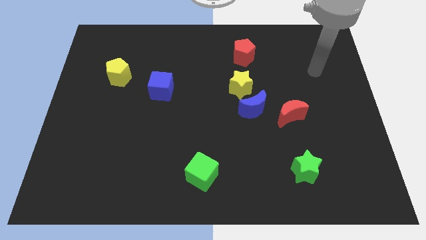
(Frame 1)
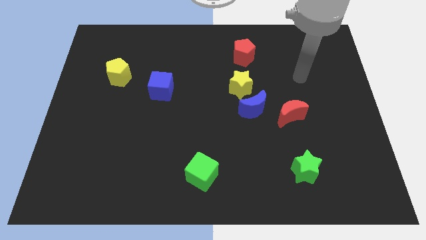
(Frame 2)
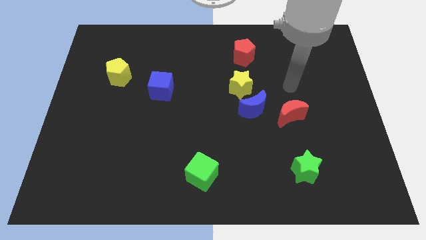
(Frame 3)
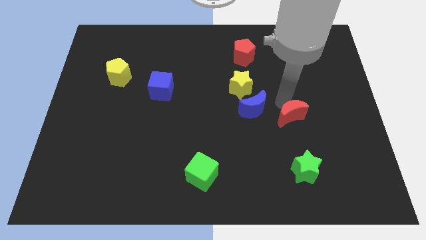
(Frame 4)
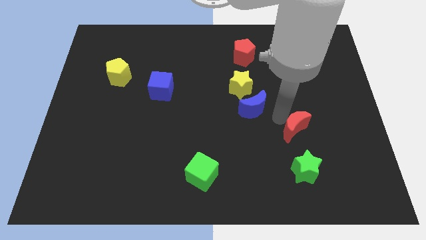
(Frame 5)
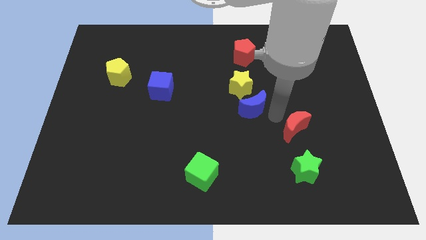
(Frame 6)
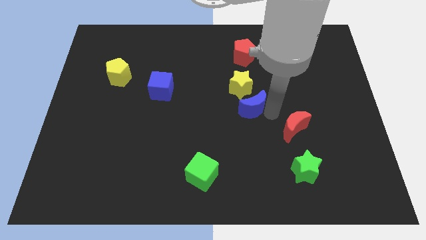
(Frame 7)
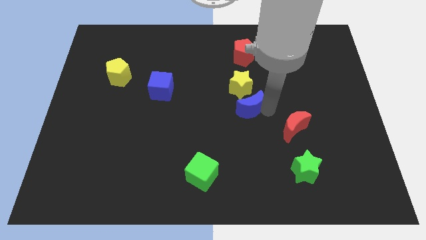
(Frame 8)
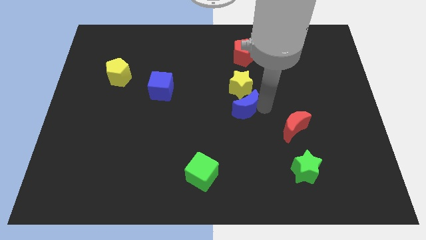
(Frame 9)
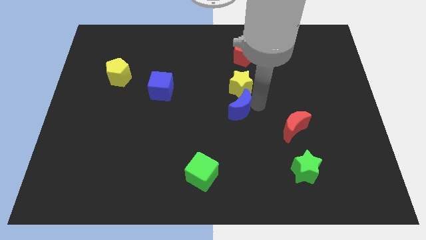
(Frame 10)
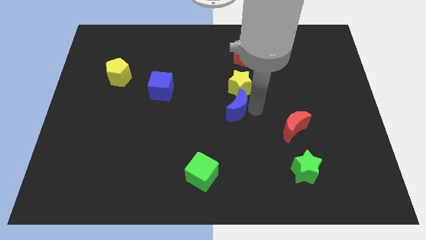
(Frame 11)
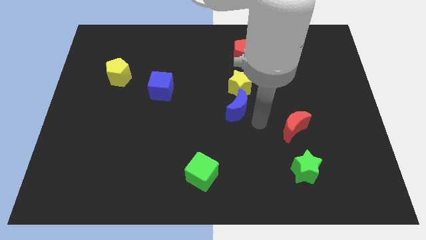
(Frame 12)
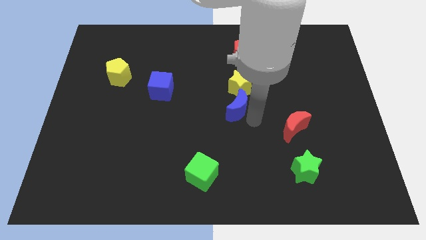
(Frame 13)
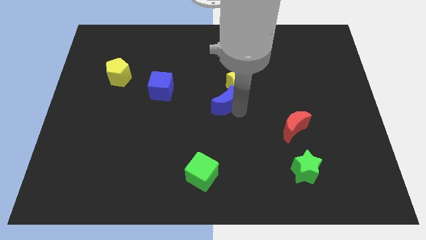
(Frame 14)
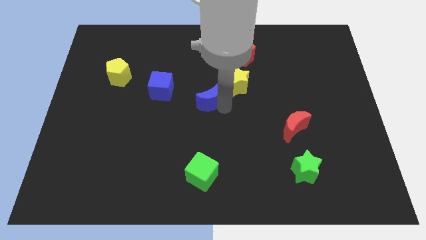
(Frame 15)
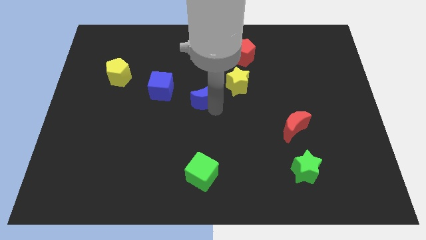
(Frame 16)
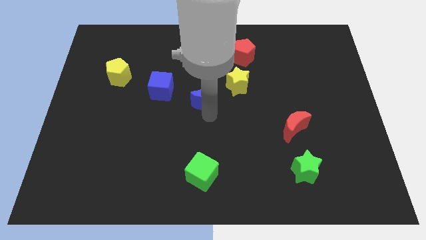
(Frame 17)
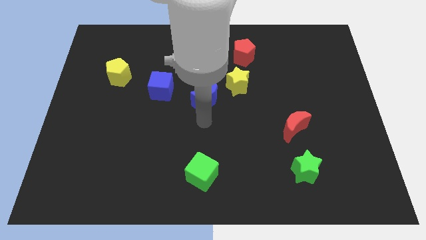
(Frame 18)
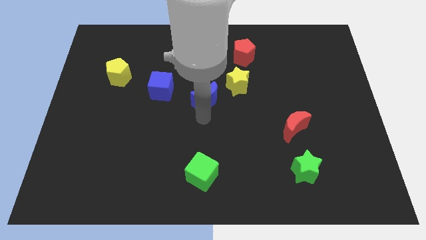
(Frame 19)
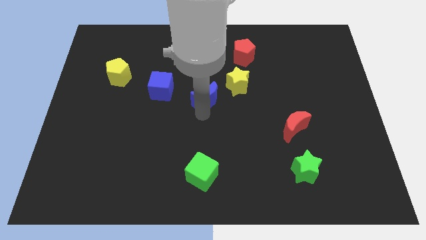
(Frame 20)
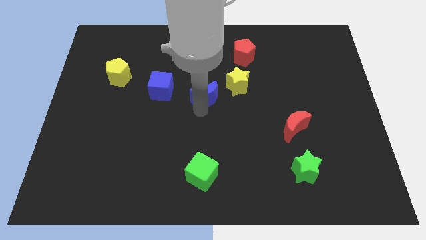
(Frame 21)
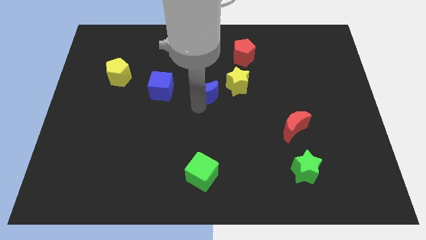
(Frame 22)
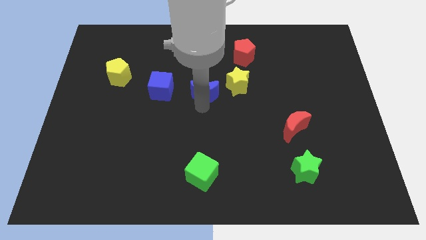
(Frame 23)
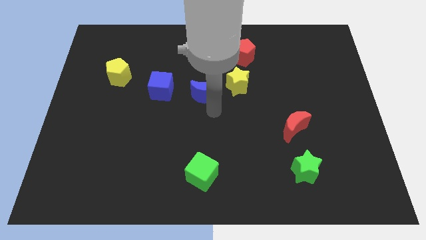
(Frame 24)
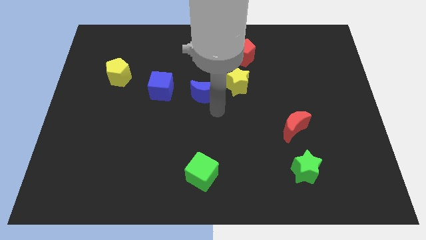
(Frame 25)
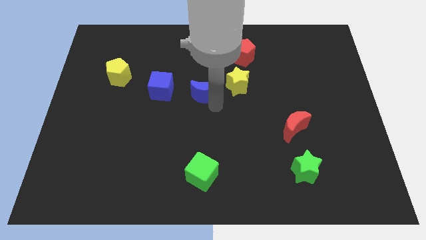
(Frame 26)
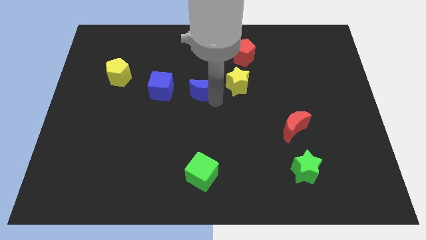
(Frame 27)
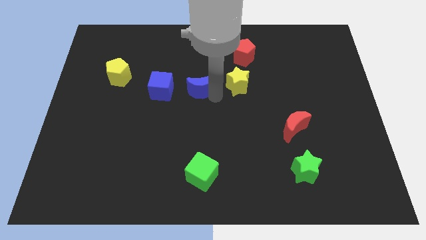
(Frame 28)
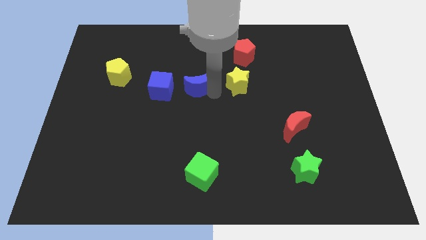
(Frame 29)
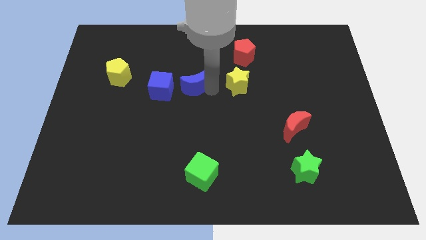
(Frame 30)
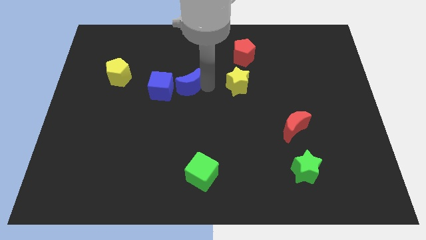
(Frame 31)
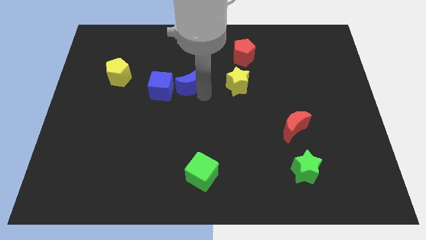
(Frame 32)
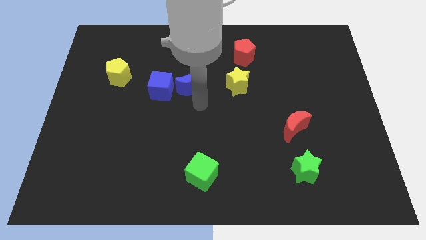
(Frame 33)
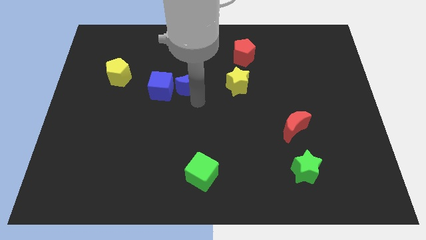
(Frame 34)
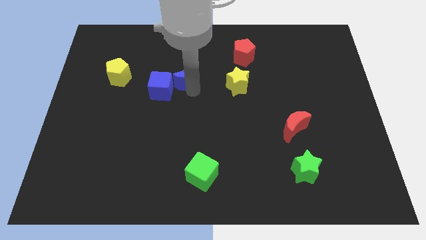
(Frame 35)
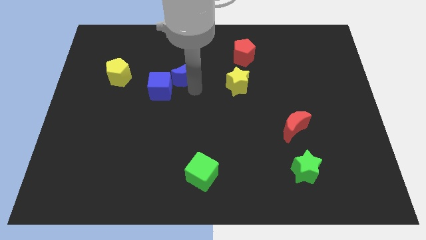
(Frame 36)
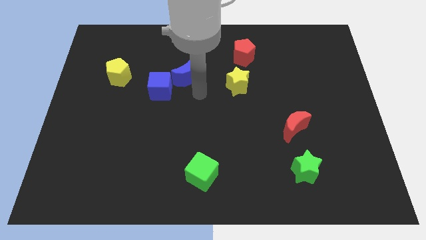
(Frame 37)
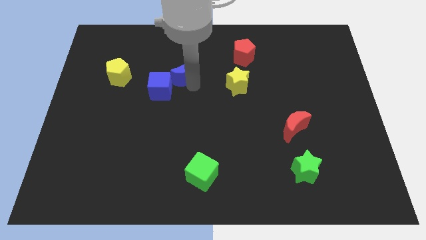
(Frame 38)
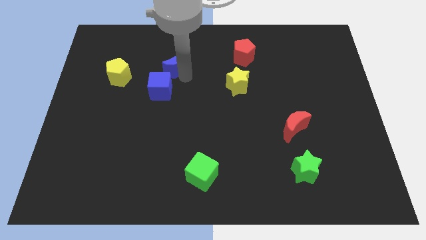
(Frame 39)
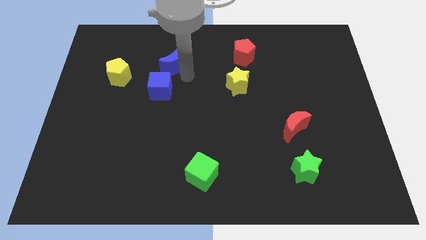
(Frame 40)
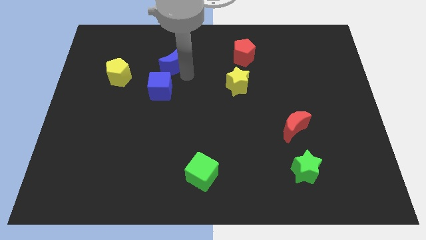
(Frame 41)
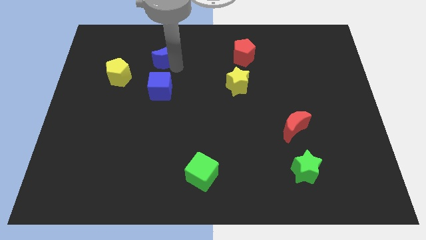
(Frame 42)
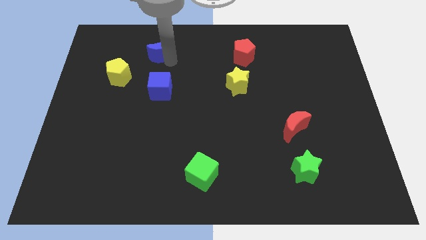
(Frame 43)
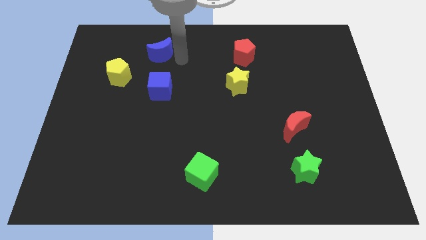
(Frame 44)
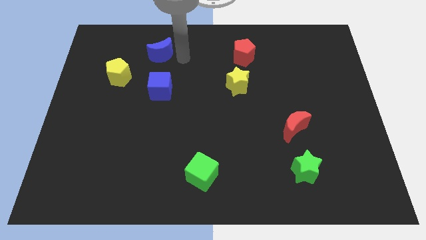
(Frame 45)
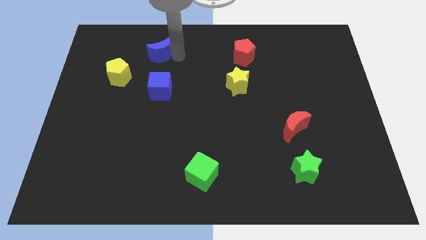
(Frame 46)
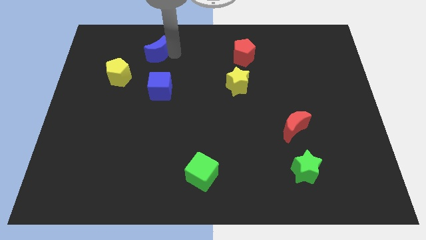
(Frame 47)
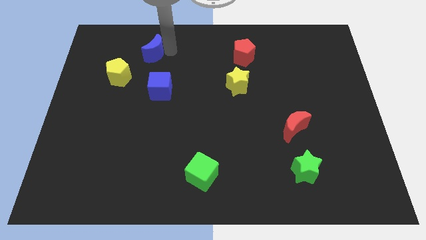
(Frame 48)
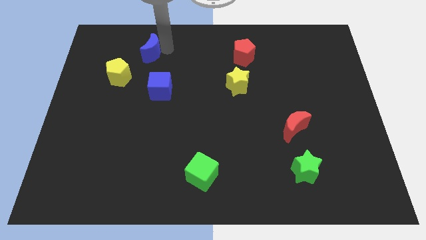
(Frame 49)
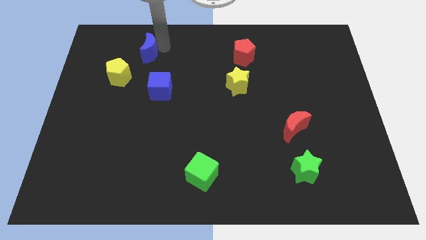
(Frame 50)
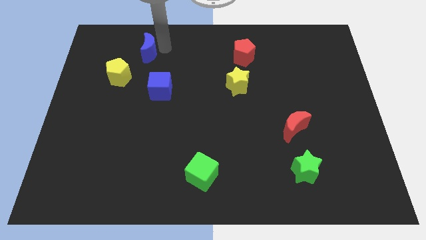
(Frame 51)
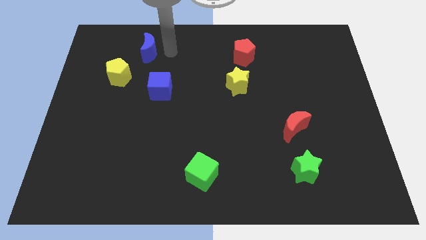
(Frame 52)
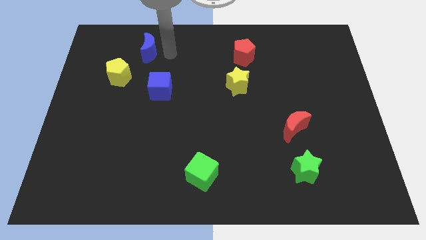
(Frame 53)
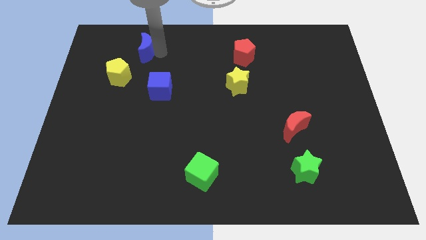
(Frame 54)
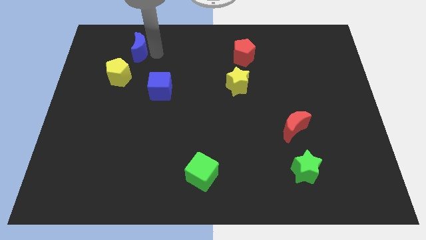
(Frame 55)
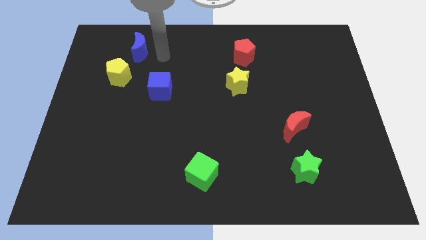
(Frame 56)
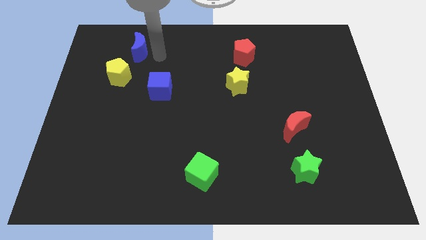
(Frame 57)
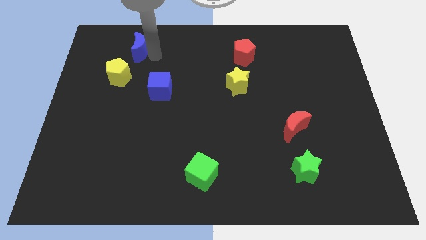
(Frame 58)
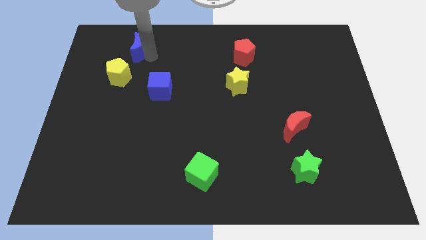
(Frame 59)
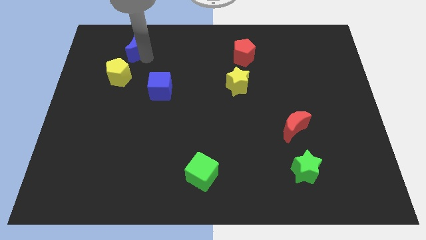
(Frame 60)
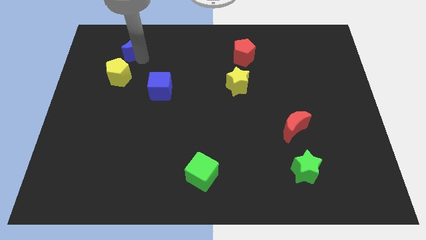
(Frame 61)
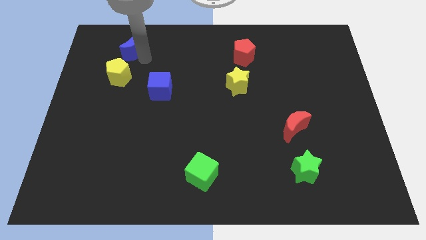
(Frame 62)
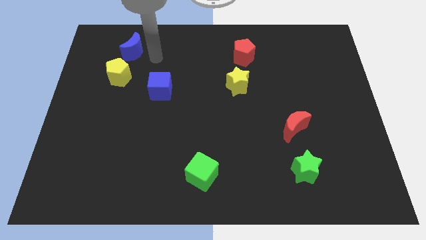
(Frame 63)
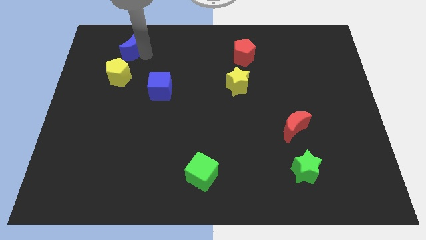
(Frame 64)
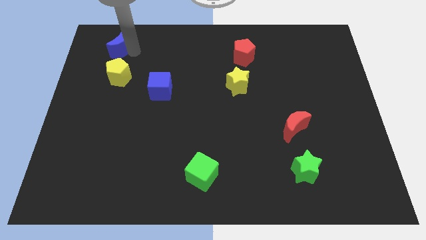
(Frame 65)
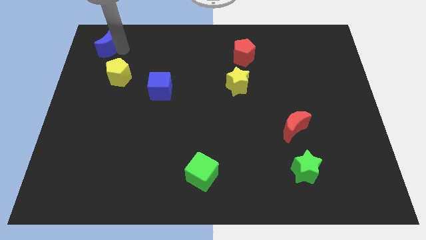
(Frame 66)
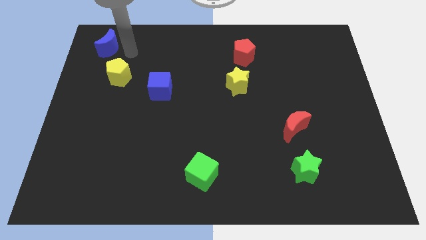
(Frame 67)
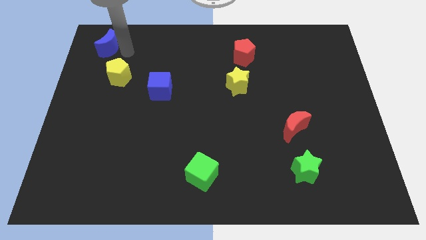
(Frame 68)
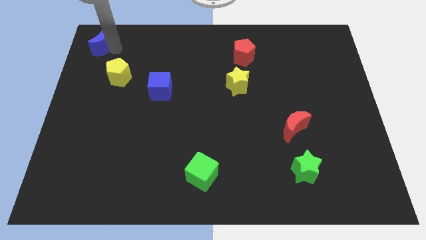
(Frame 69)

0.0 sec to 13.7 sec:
slide the blue moon to the top left of the board
